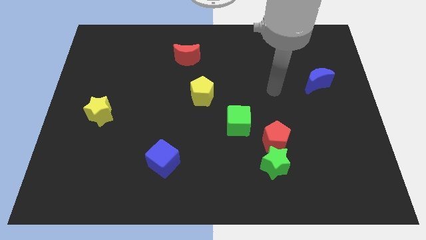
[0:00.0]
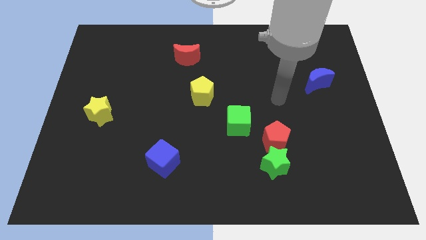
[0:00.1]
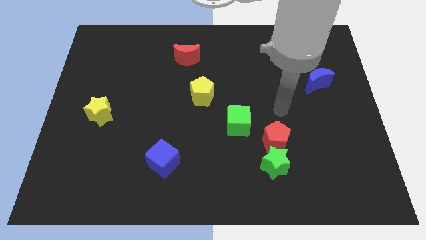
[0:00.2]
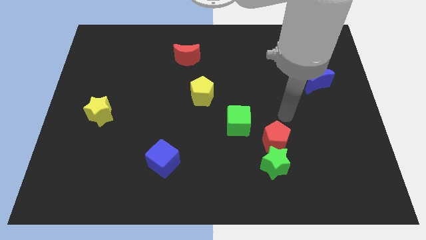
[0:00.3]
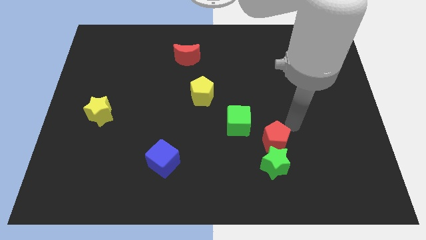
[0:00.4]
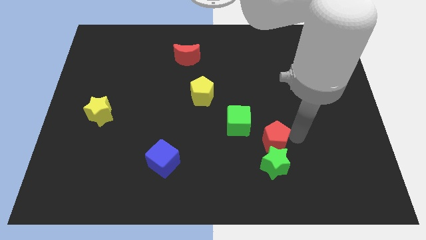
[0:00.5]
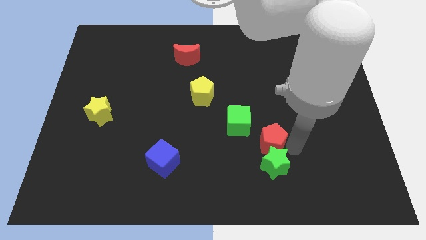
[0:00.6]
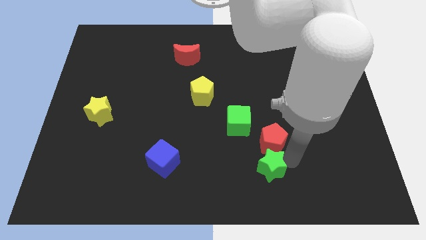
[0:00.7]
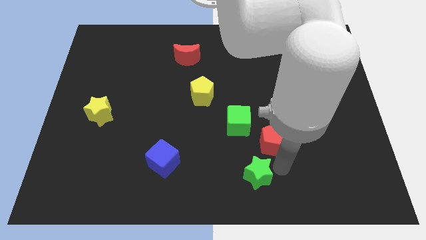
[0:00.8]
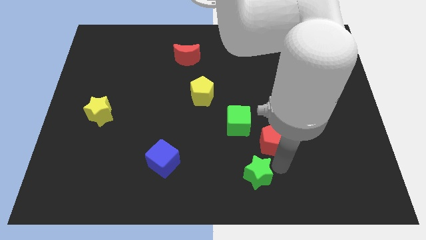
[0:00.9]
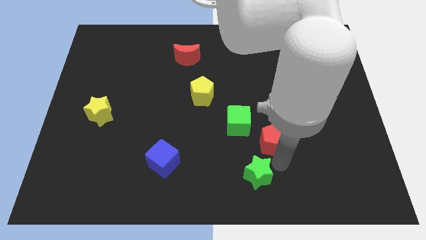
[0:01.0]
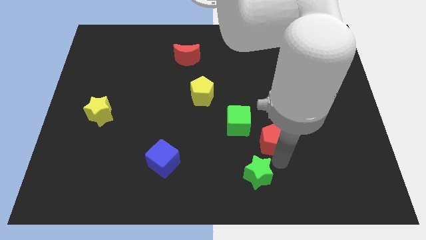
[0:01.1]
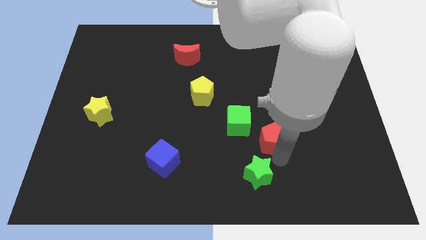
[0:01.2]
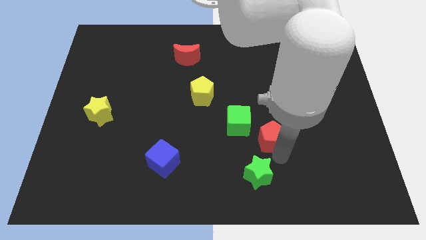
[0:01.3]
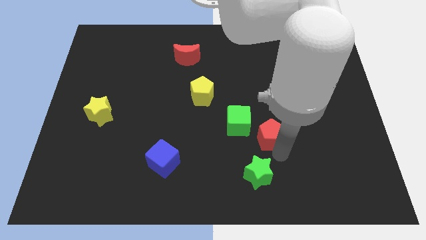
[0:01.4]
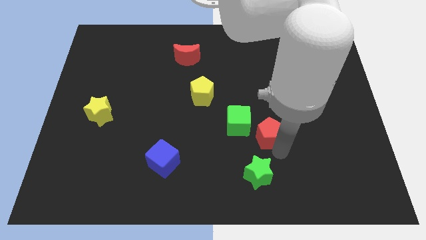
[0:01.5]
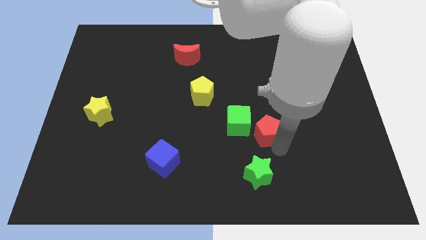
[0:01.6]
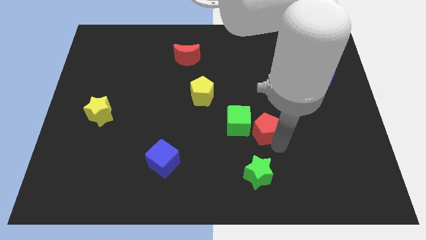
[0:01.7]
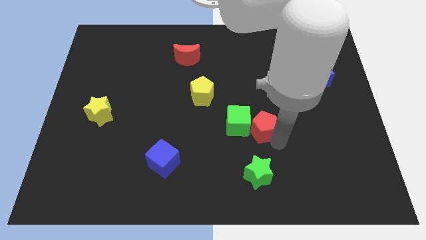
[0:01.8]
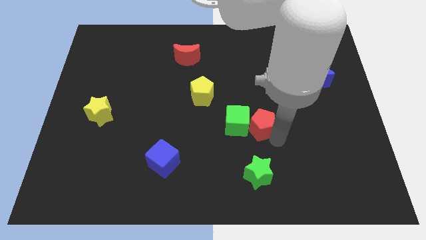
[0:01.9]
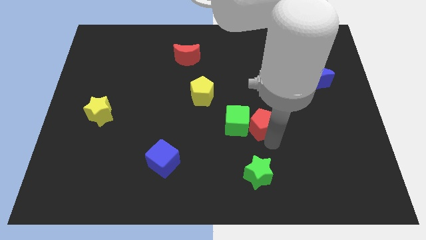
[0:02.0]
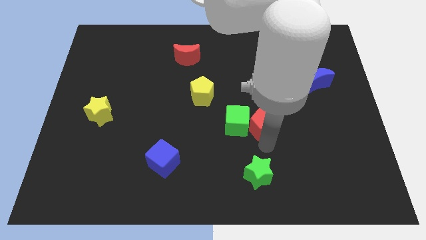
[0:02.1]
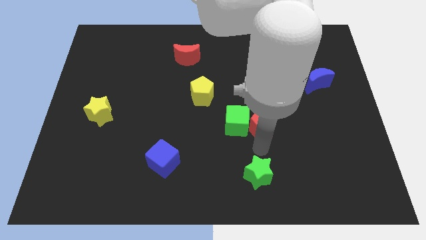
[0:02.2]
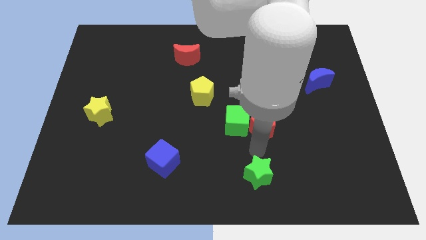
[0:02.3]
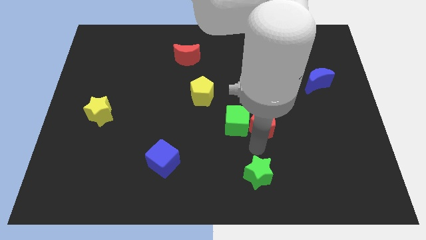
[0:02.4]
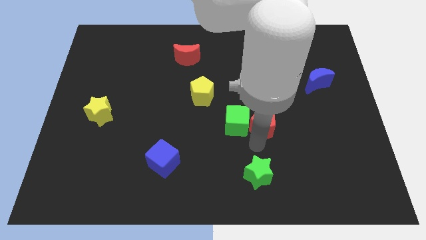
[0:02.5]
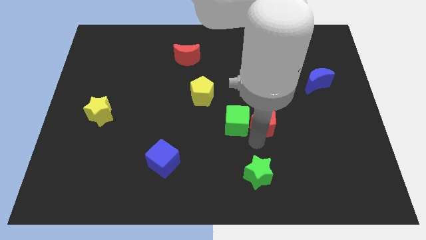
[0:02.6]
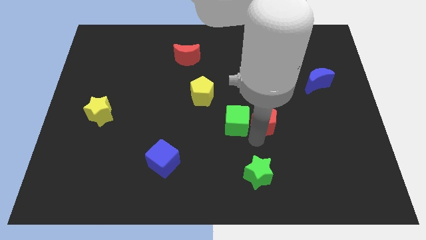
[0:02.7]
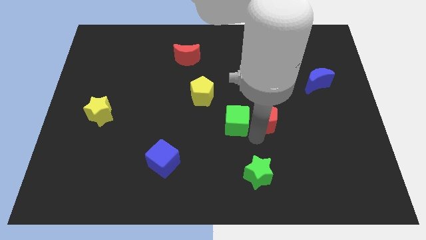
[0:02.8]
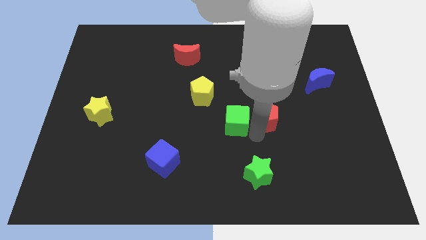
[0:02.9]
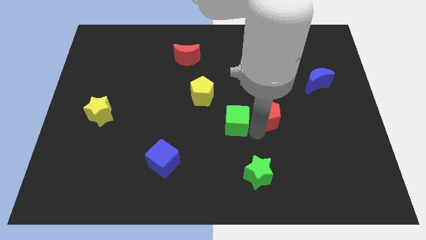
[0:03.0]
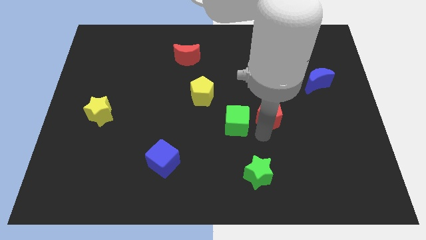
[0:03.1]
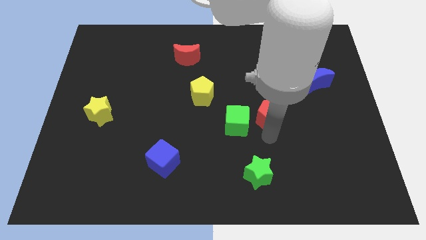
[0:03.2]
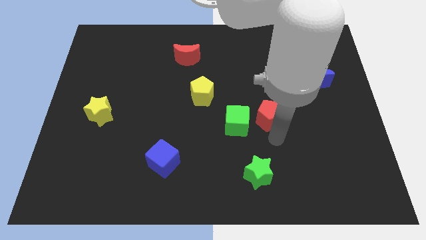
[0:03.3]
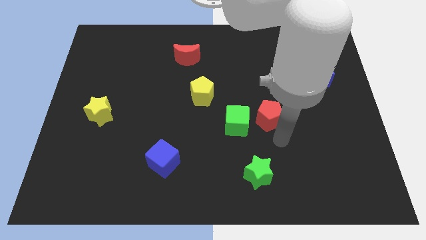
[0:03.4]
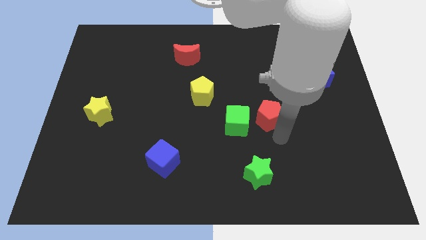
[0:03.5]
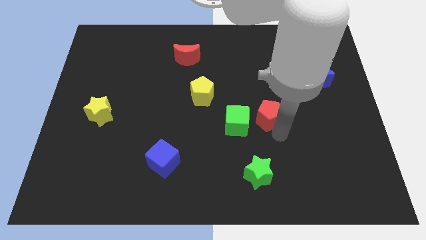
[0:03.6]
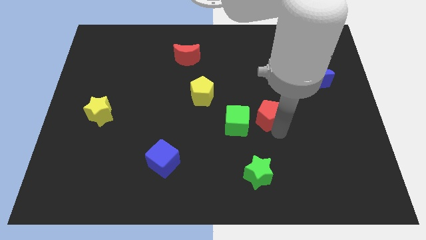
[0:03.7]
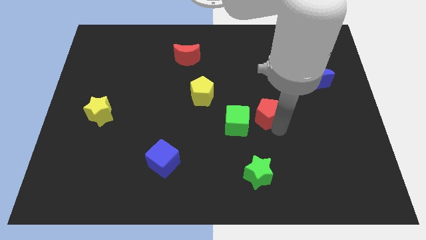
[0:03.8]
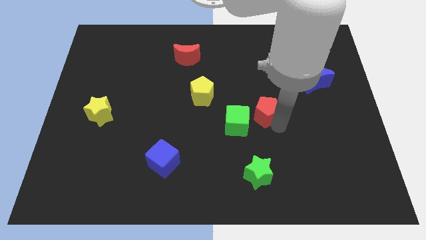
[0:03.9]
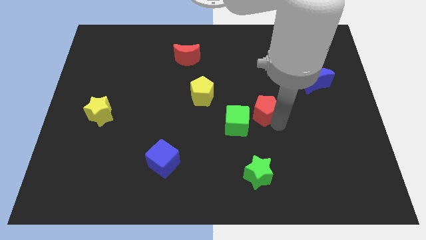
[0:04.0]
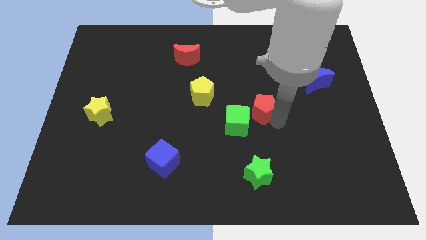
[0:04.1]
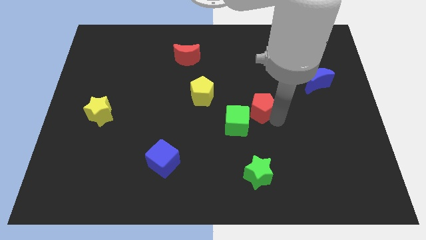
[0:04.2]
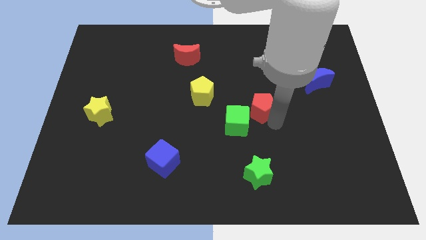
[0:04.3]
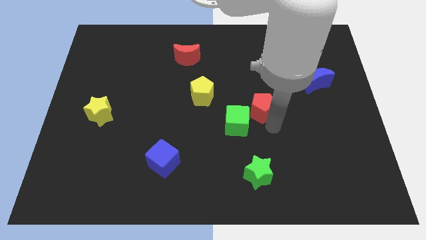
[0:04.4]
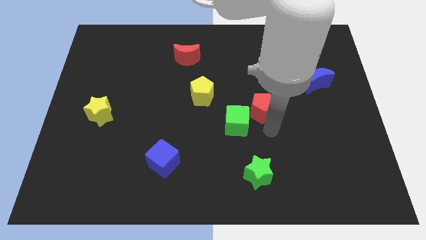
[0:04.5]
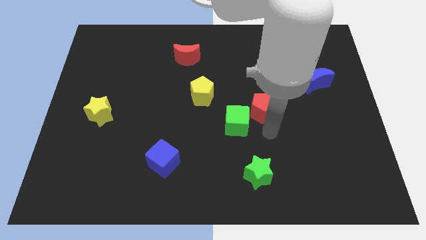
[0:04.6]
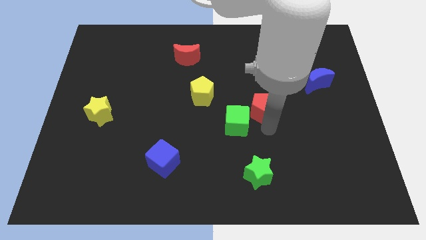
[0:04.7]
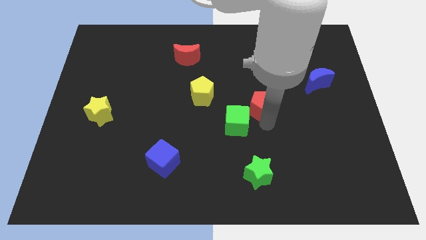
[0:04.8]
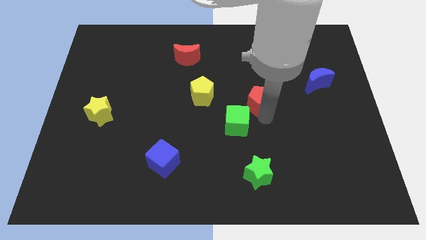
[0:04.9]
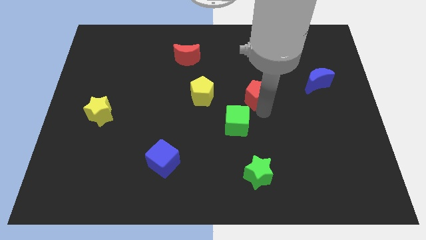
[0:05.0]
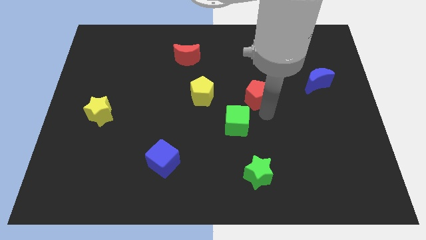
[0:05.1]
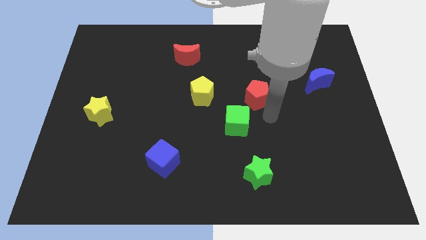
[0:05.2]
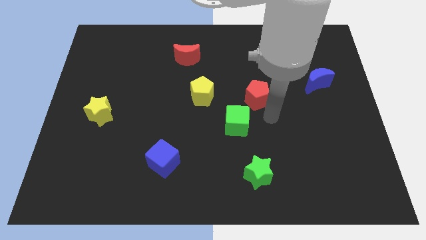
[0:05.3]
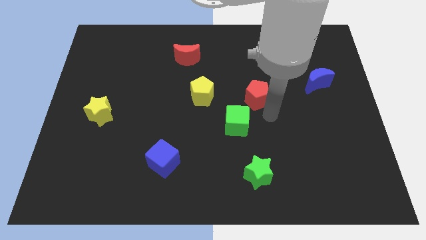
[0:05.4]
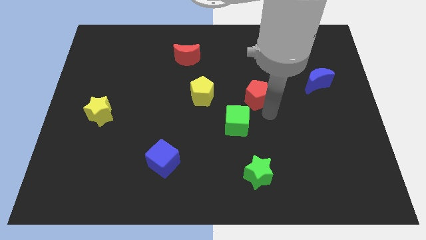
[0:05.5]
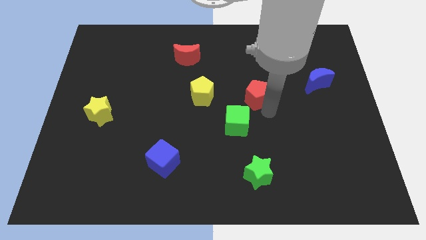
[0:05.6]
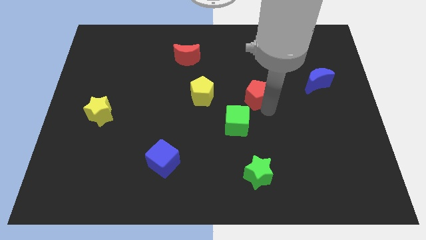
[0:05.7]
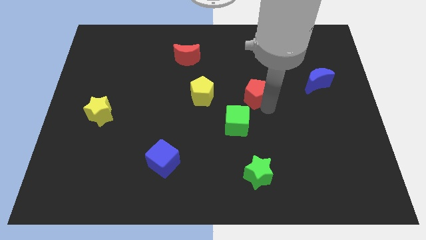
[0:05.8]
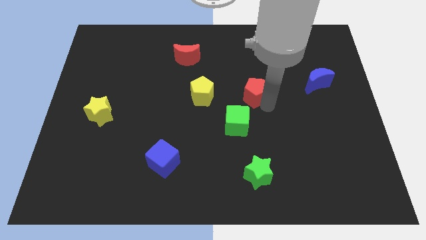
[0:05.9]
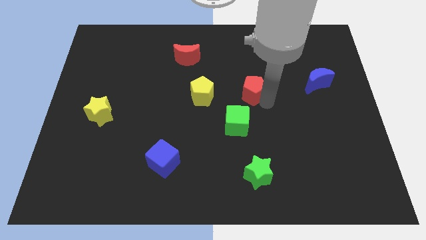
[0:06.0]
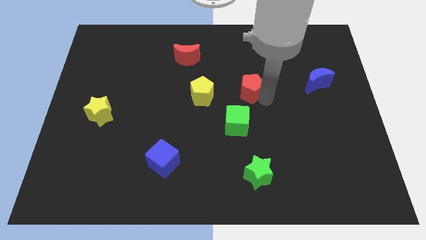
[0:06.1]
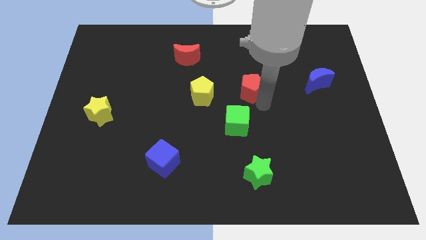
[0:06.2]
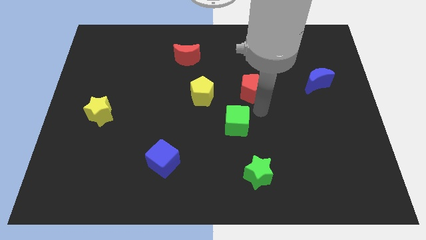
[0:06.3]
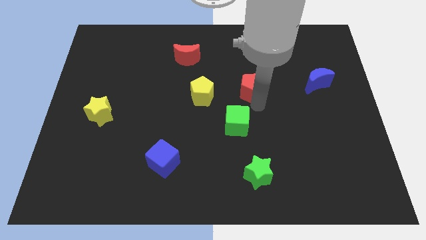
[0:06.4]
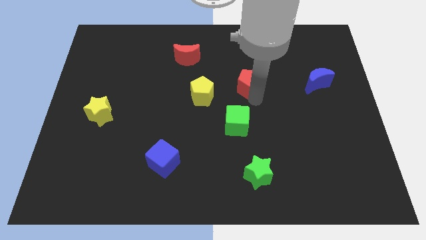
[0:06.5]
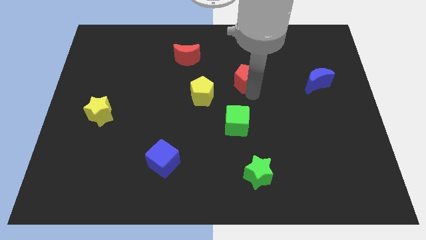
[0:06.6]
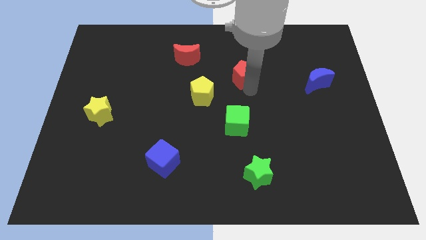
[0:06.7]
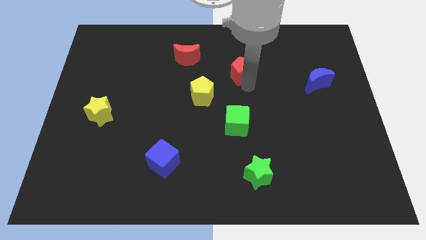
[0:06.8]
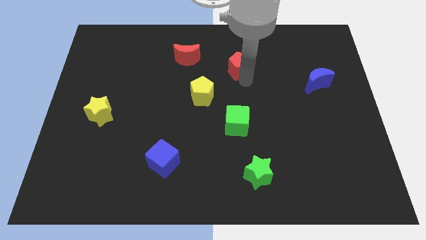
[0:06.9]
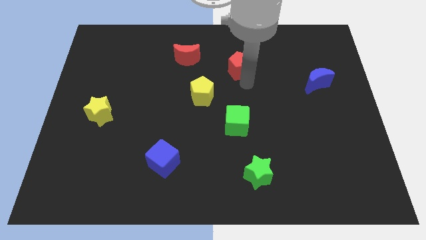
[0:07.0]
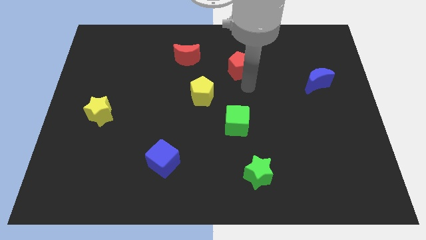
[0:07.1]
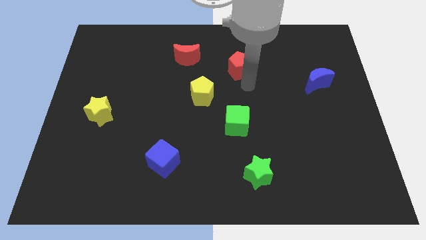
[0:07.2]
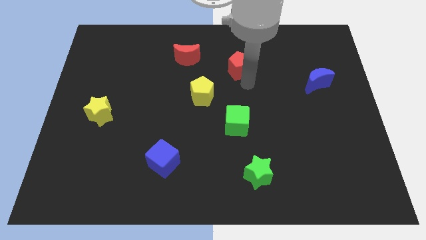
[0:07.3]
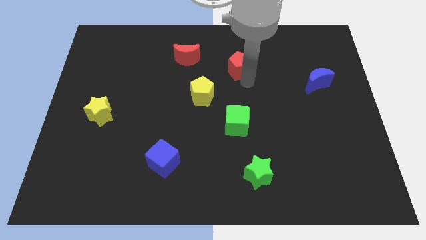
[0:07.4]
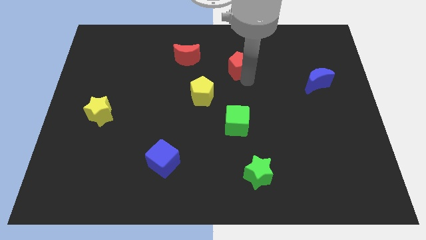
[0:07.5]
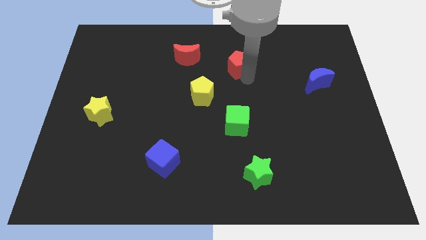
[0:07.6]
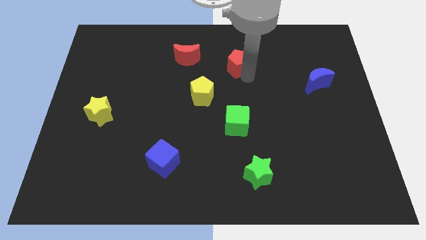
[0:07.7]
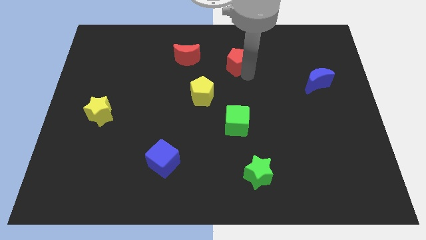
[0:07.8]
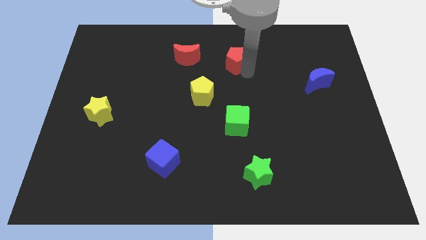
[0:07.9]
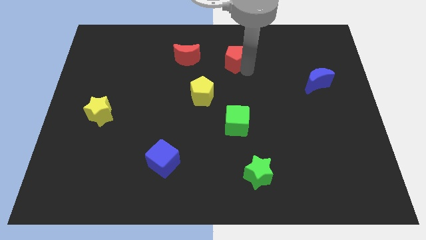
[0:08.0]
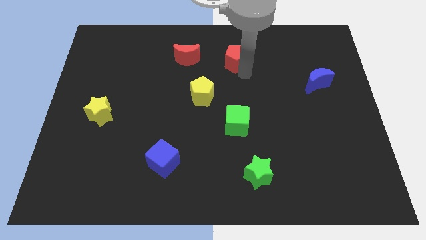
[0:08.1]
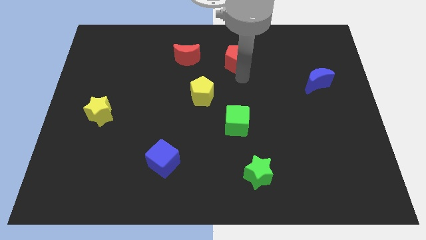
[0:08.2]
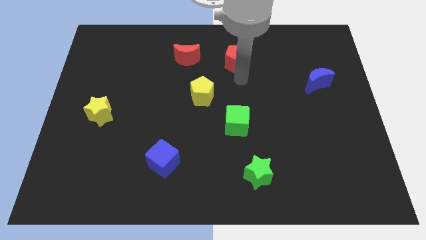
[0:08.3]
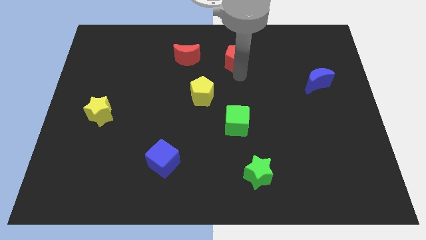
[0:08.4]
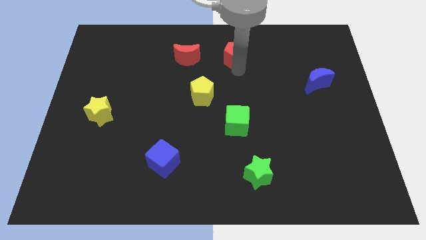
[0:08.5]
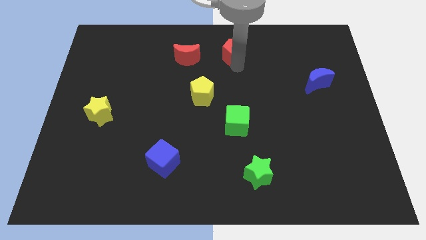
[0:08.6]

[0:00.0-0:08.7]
put the red pentagon to the towards your base
